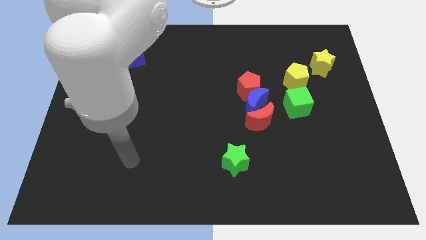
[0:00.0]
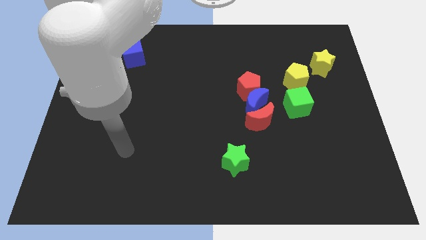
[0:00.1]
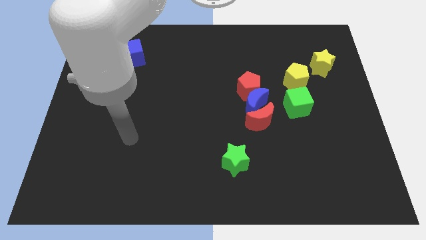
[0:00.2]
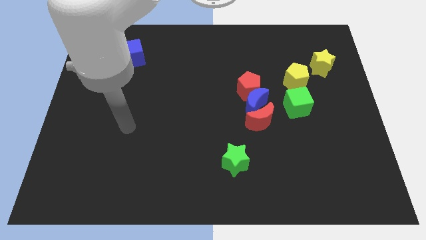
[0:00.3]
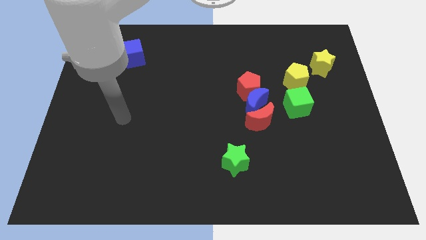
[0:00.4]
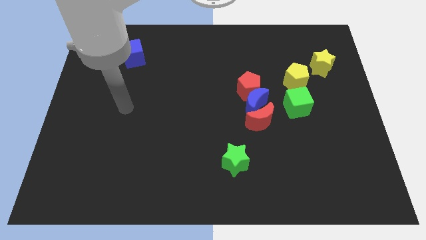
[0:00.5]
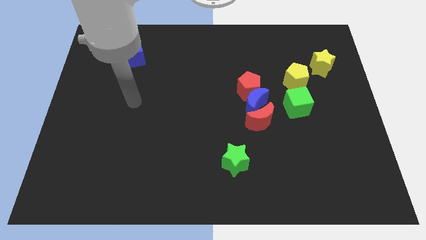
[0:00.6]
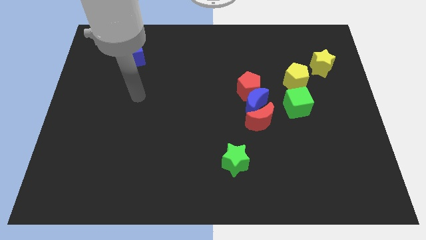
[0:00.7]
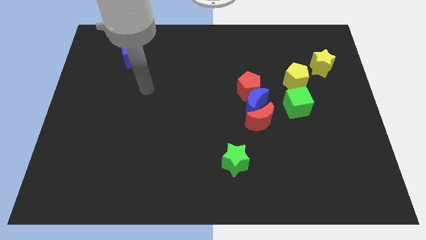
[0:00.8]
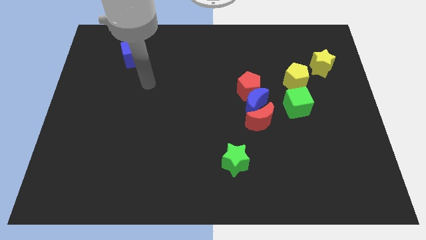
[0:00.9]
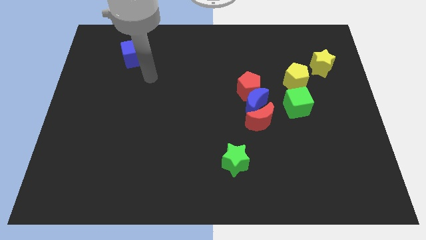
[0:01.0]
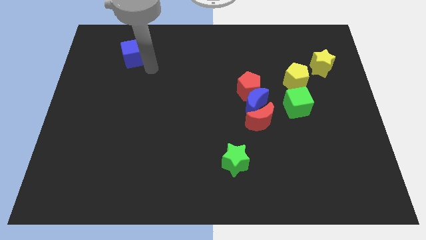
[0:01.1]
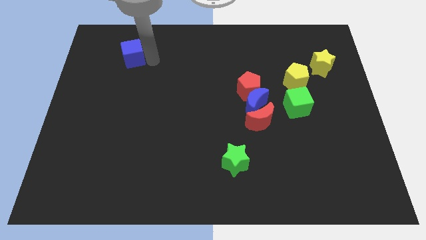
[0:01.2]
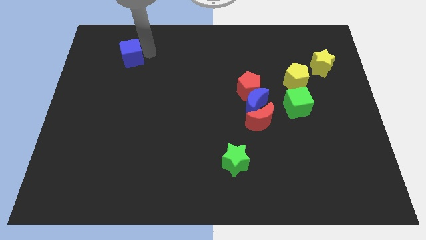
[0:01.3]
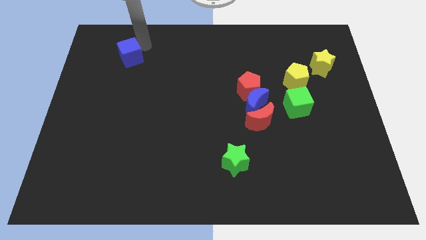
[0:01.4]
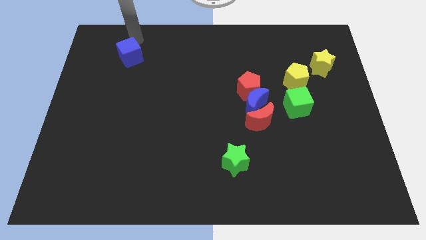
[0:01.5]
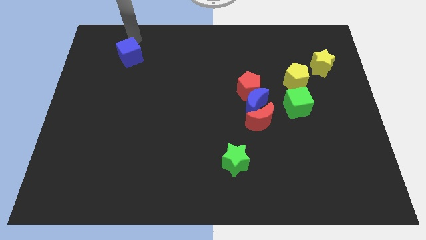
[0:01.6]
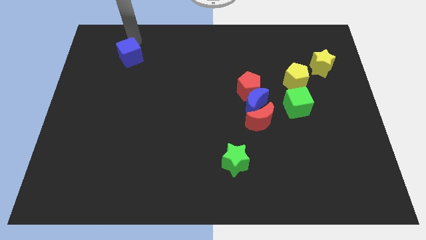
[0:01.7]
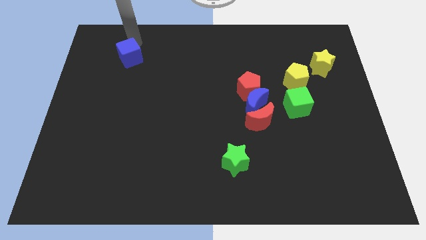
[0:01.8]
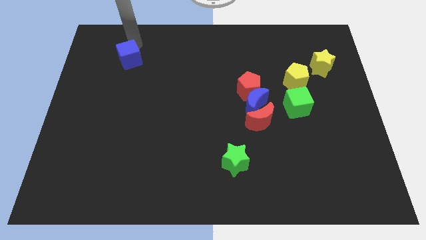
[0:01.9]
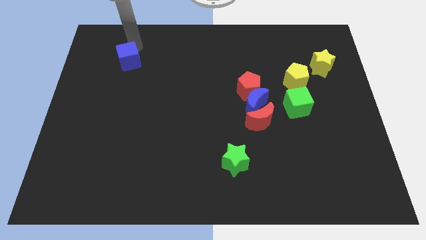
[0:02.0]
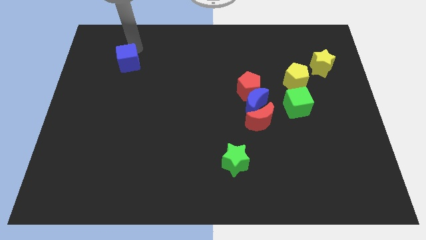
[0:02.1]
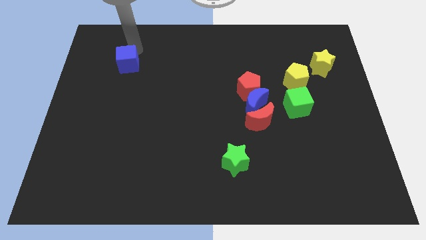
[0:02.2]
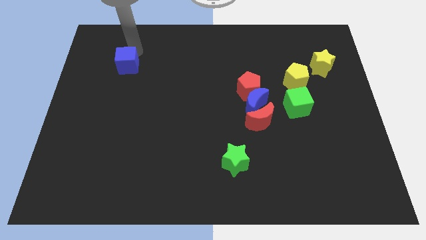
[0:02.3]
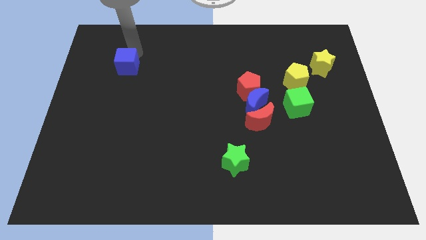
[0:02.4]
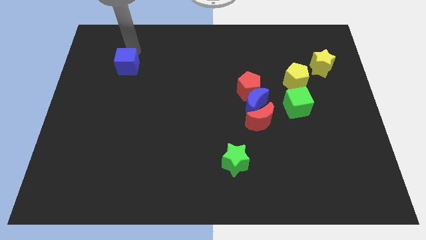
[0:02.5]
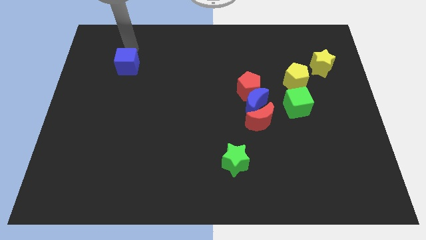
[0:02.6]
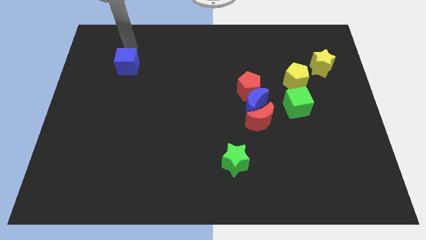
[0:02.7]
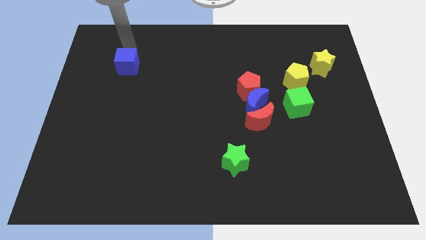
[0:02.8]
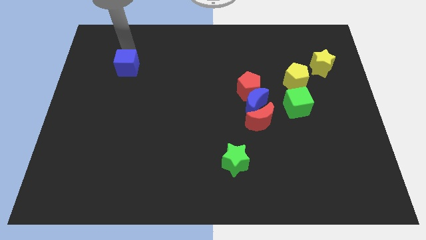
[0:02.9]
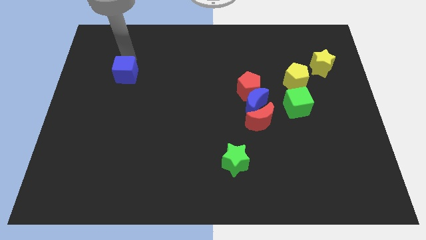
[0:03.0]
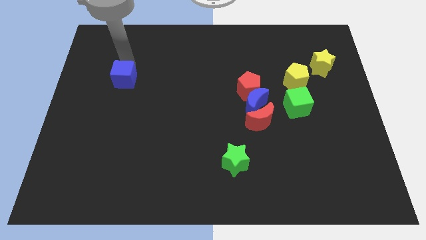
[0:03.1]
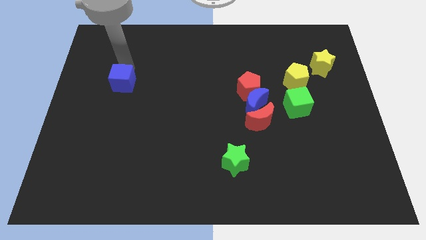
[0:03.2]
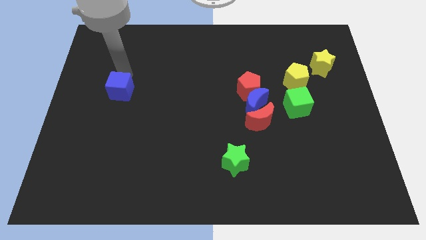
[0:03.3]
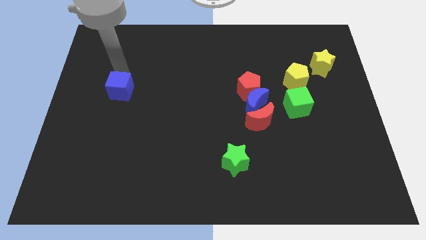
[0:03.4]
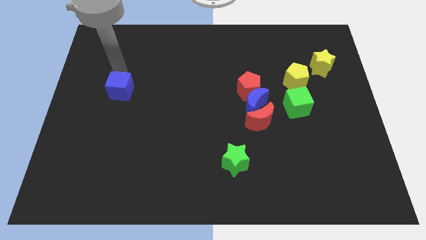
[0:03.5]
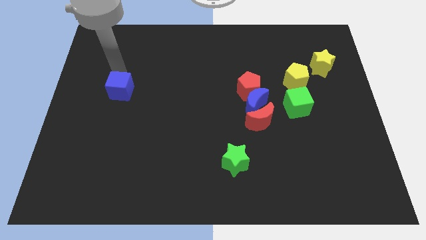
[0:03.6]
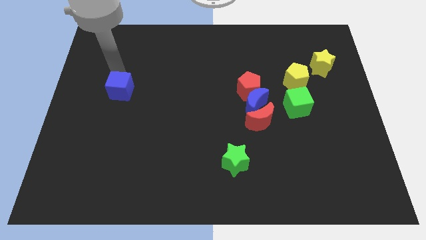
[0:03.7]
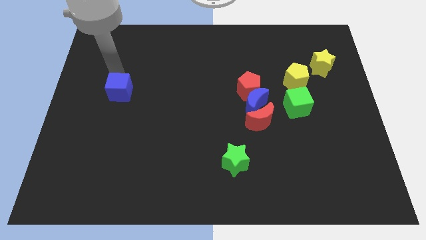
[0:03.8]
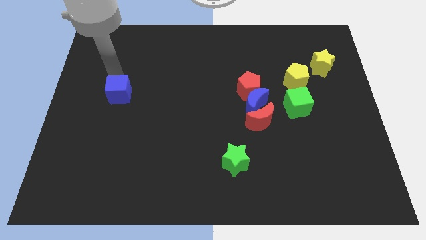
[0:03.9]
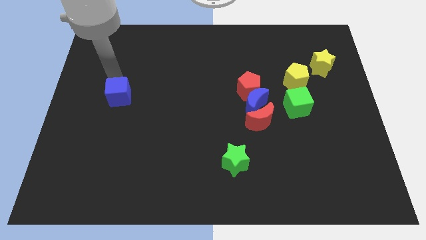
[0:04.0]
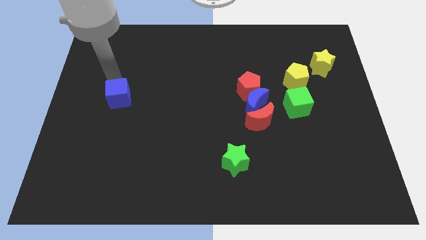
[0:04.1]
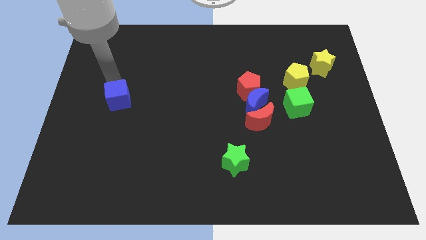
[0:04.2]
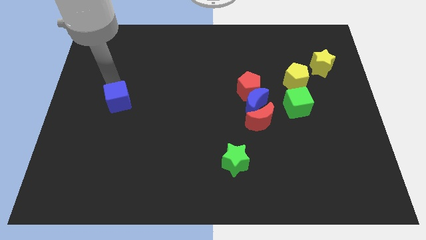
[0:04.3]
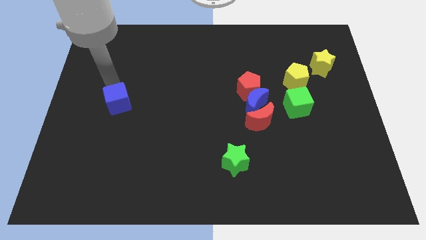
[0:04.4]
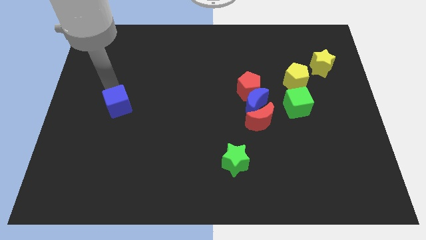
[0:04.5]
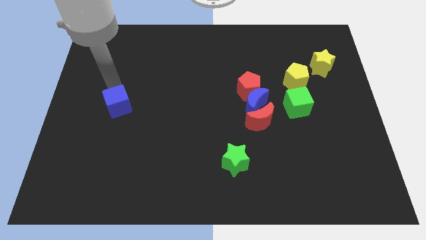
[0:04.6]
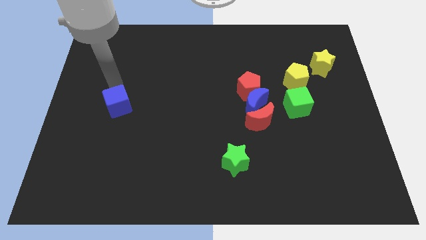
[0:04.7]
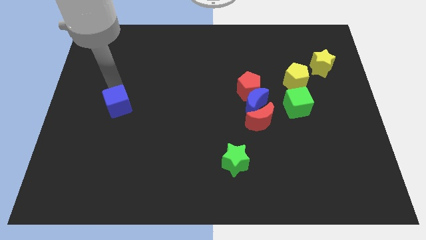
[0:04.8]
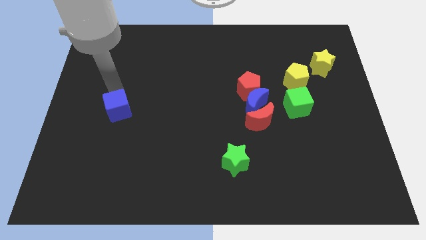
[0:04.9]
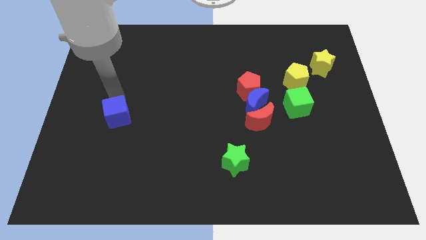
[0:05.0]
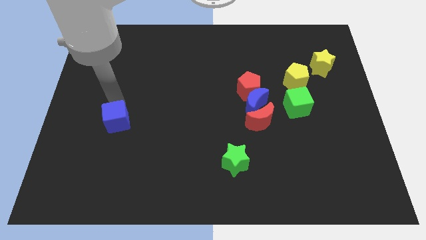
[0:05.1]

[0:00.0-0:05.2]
push the blue cube down

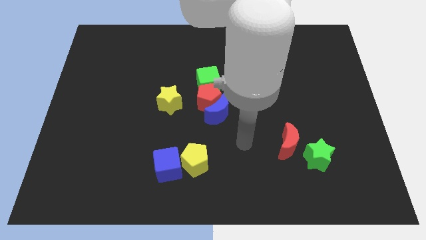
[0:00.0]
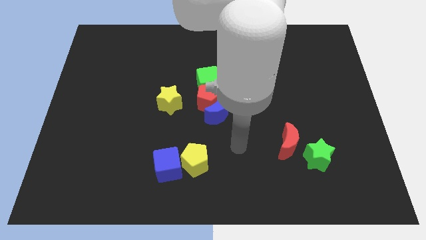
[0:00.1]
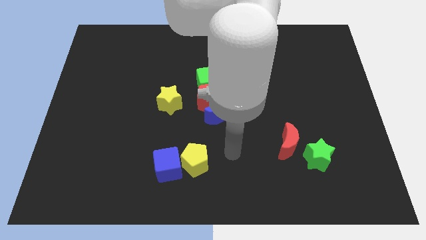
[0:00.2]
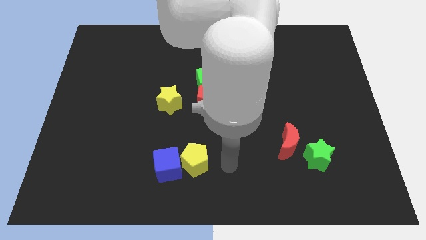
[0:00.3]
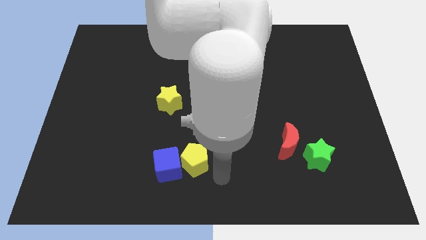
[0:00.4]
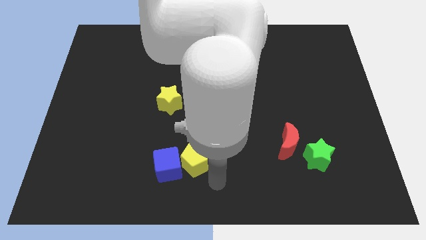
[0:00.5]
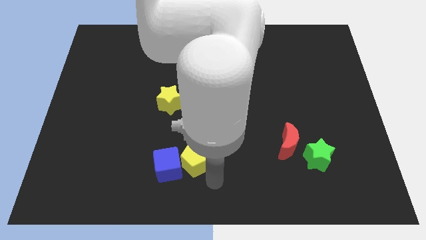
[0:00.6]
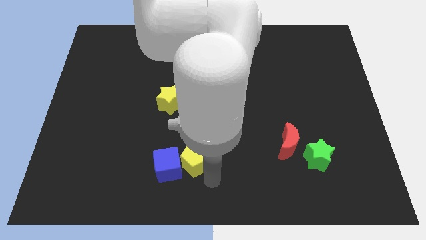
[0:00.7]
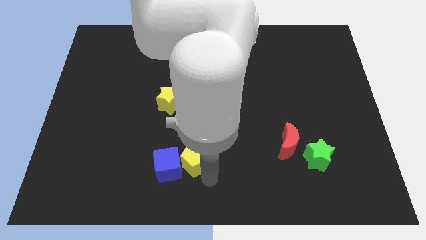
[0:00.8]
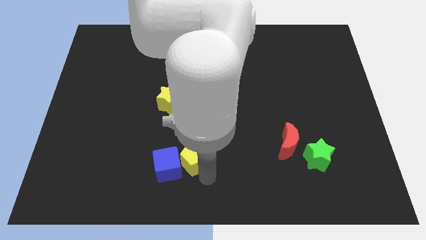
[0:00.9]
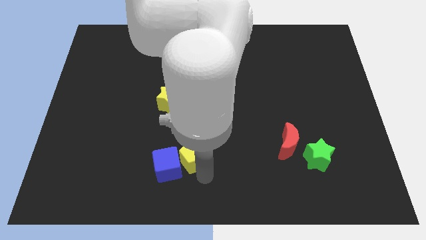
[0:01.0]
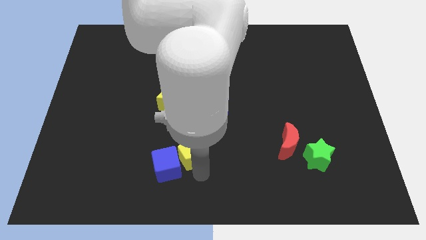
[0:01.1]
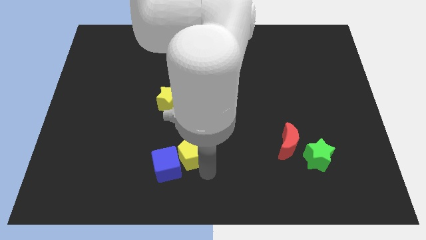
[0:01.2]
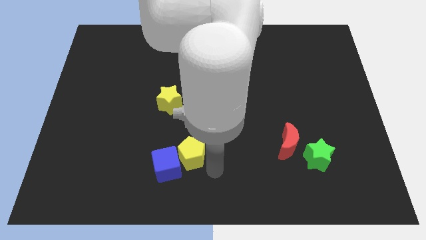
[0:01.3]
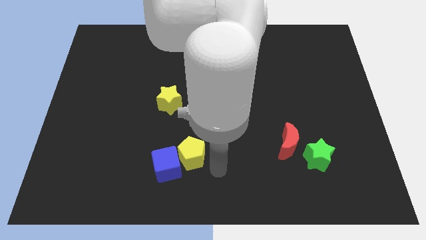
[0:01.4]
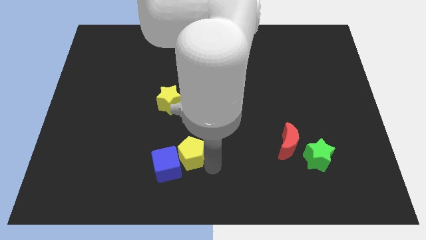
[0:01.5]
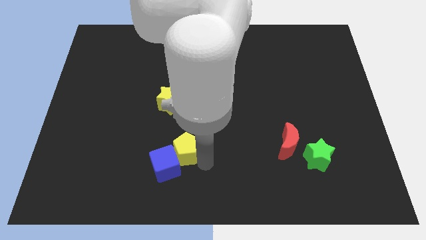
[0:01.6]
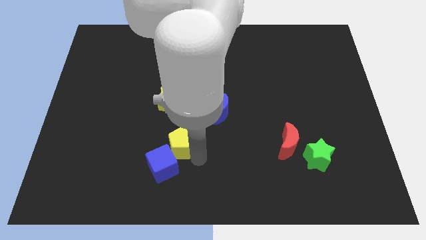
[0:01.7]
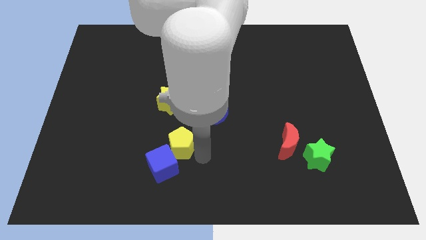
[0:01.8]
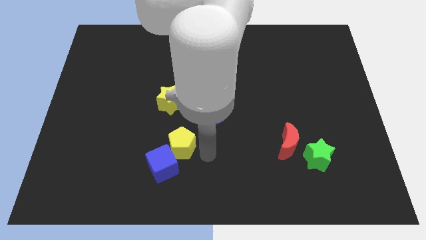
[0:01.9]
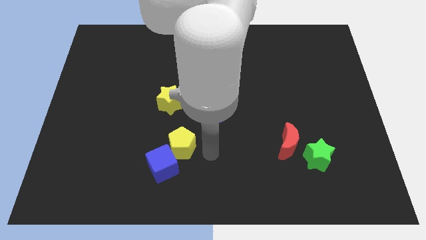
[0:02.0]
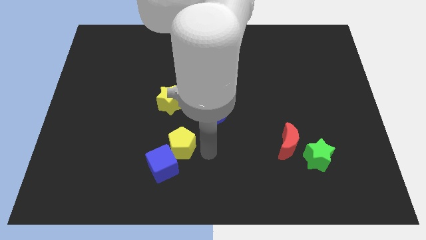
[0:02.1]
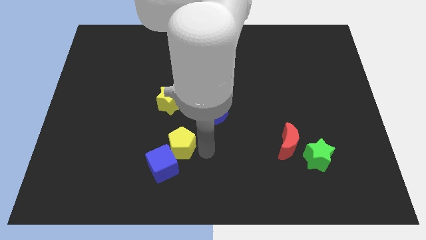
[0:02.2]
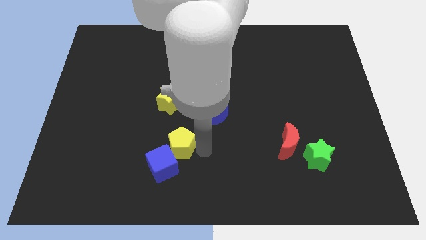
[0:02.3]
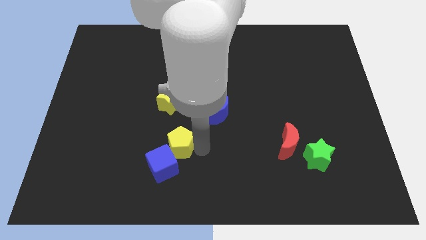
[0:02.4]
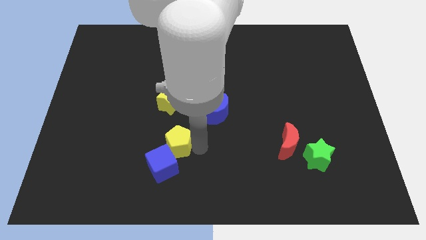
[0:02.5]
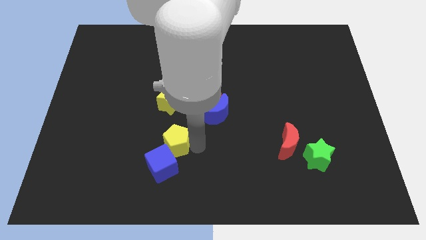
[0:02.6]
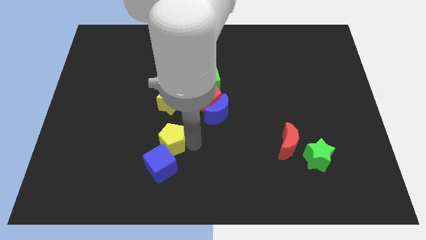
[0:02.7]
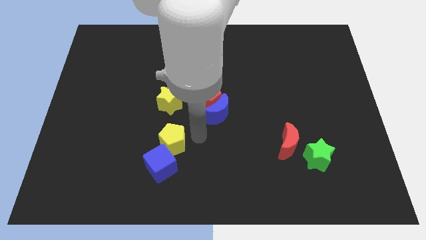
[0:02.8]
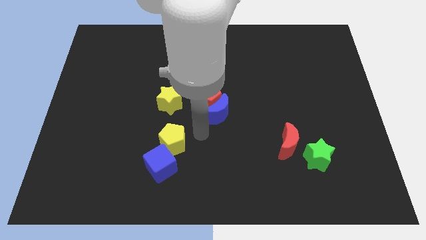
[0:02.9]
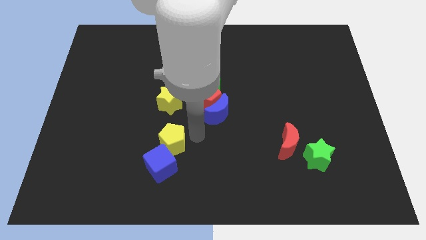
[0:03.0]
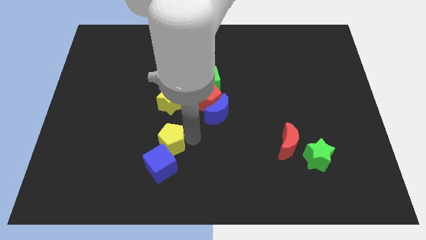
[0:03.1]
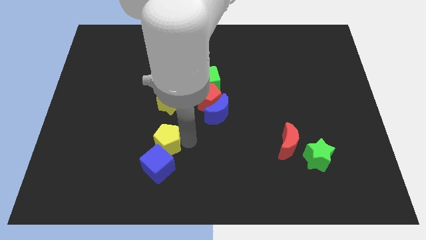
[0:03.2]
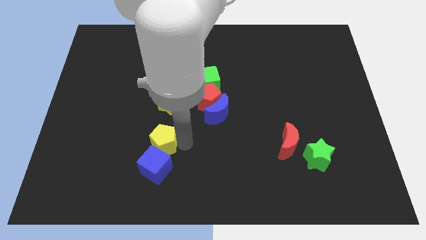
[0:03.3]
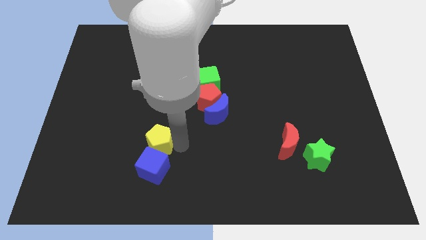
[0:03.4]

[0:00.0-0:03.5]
slide the yellow pentagon left a little
